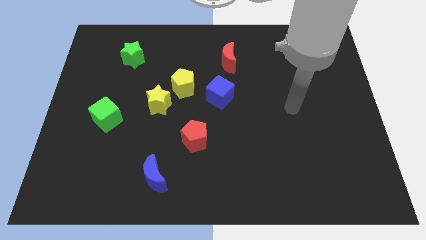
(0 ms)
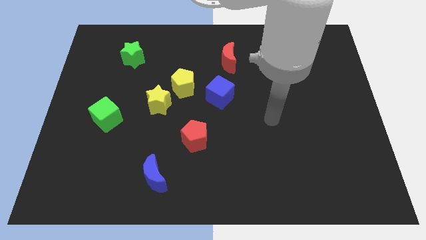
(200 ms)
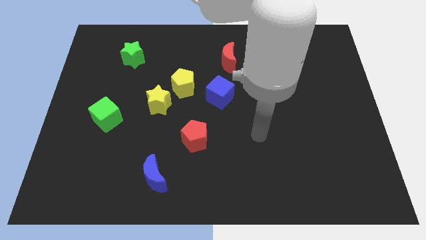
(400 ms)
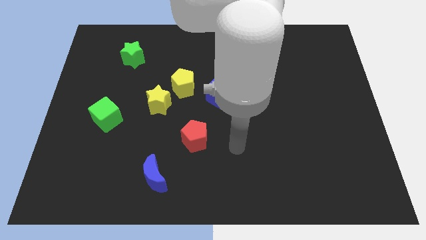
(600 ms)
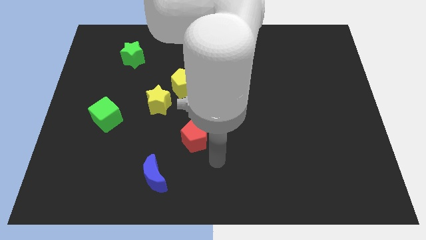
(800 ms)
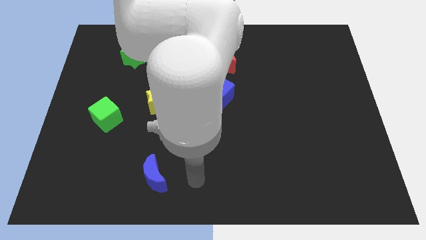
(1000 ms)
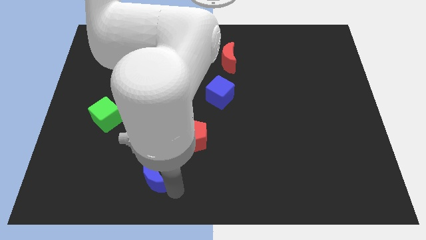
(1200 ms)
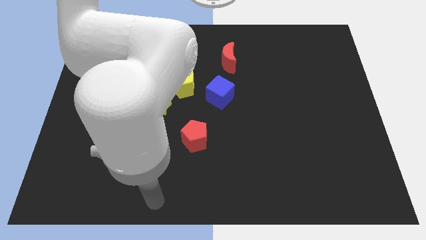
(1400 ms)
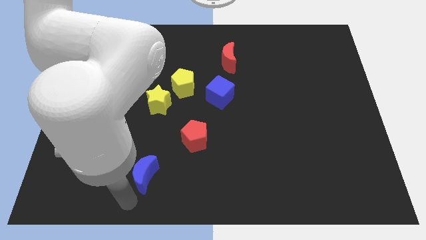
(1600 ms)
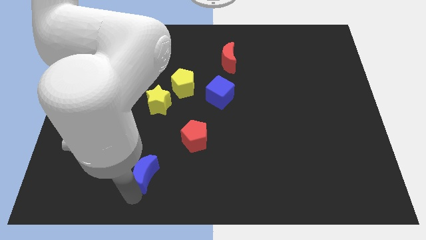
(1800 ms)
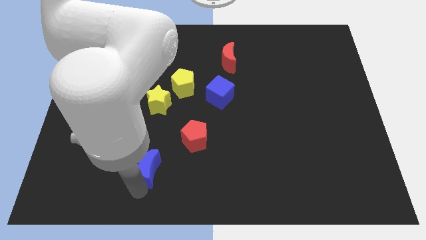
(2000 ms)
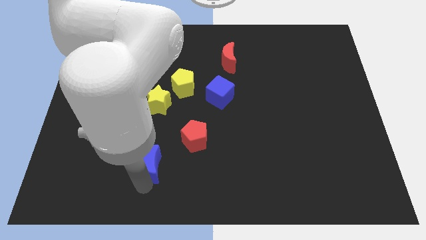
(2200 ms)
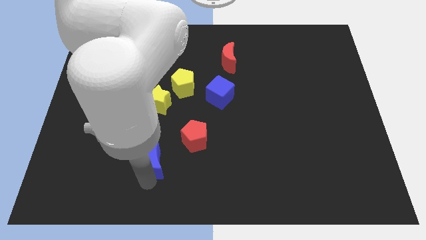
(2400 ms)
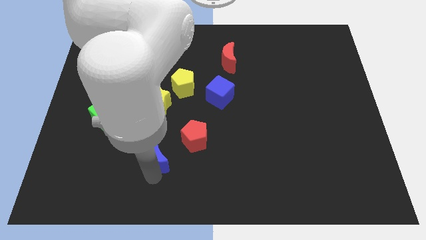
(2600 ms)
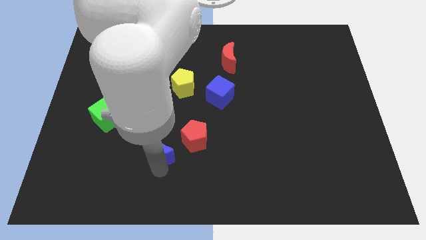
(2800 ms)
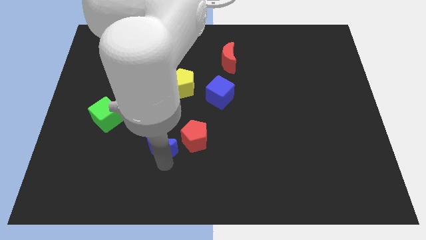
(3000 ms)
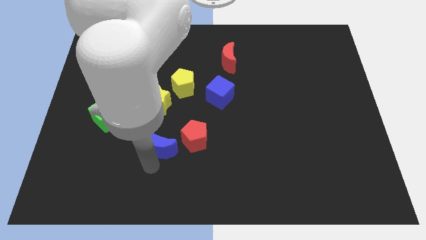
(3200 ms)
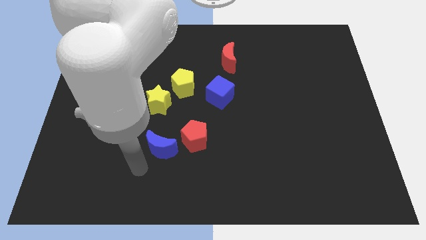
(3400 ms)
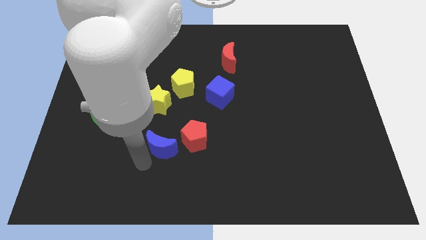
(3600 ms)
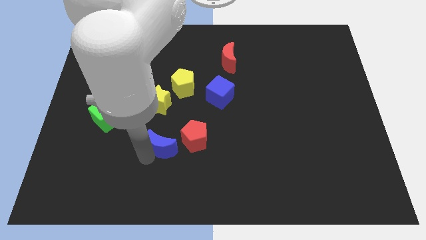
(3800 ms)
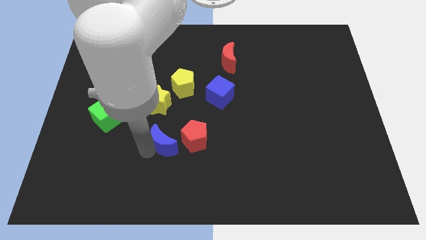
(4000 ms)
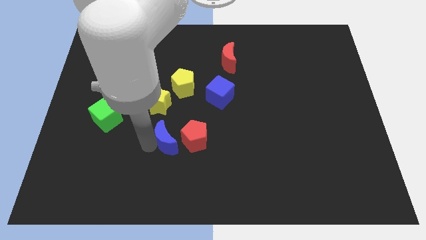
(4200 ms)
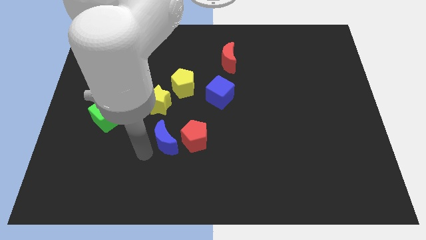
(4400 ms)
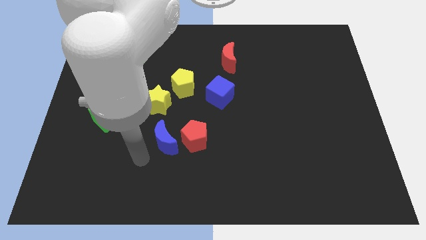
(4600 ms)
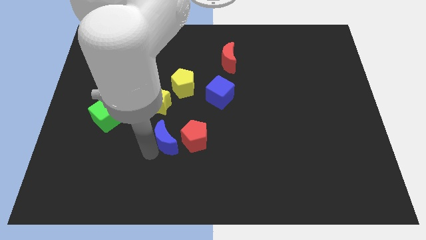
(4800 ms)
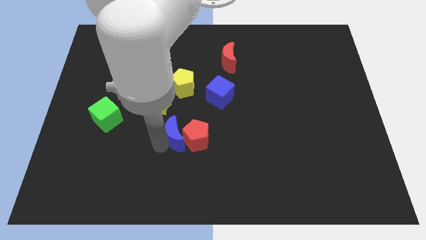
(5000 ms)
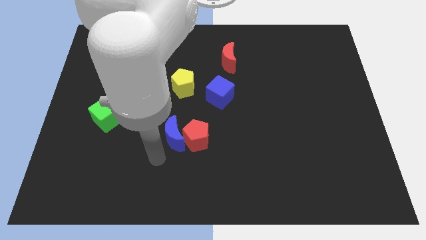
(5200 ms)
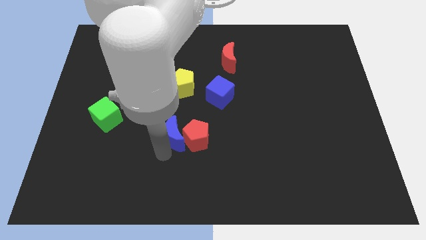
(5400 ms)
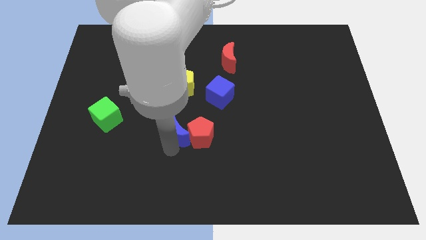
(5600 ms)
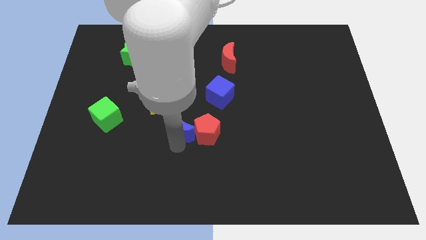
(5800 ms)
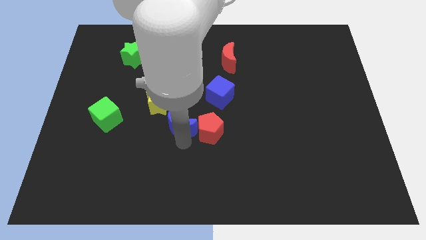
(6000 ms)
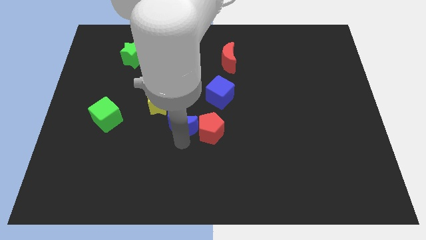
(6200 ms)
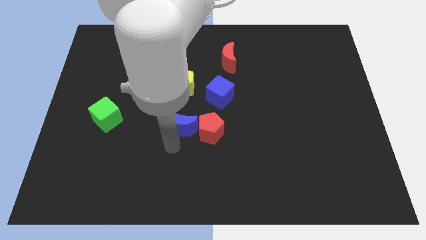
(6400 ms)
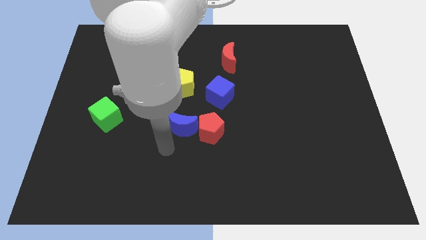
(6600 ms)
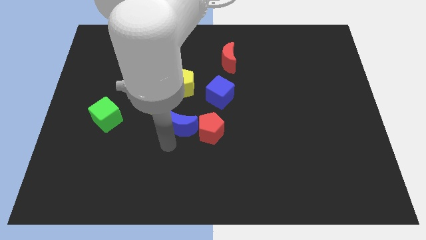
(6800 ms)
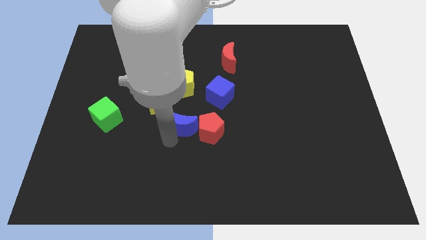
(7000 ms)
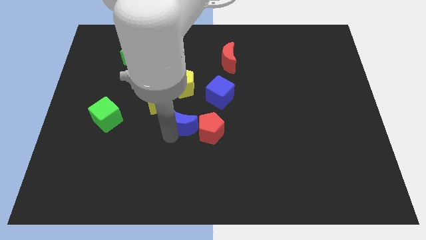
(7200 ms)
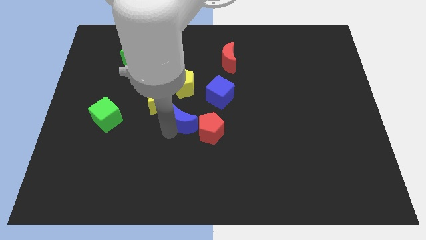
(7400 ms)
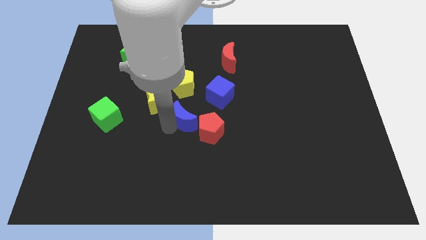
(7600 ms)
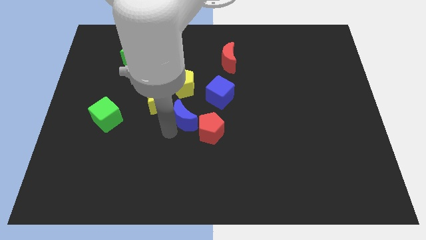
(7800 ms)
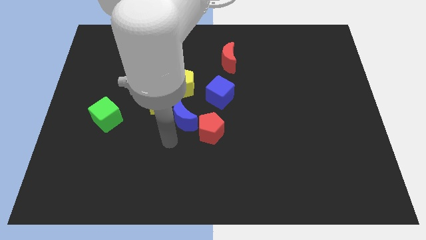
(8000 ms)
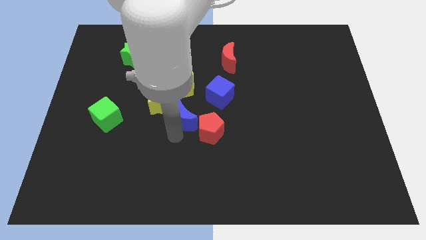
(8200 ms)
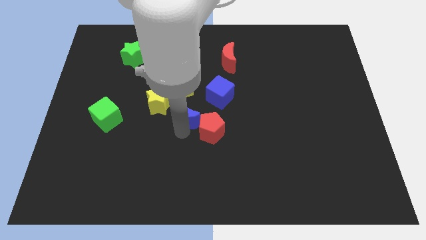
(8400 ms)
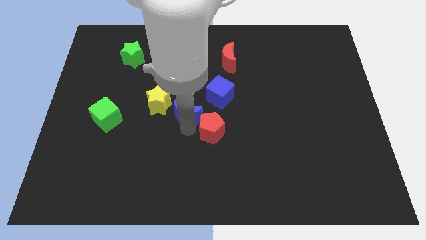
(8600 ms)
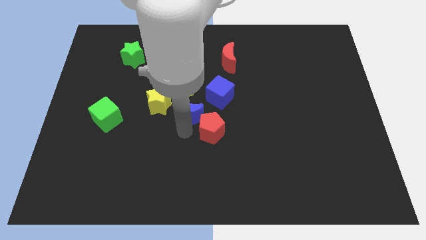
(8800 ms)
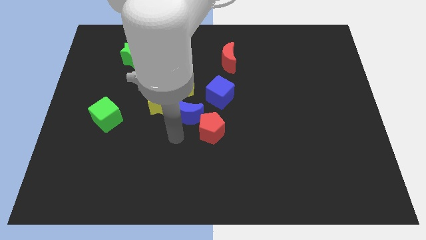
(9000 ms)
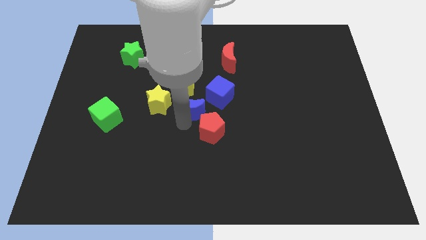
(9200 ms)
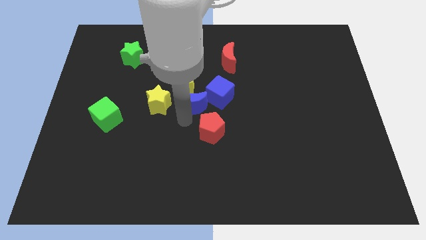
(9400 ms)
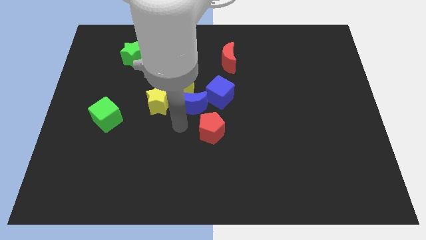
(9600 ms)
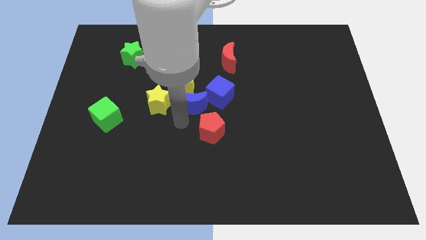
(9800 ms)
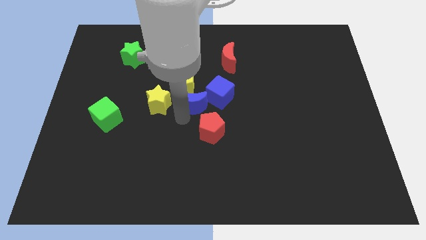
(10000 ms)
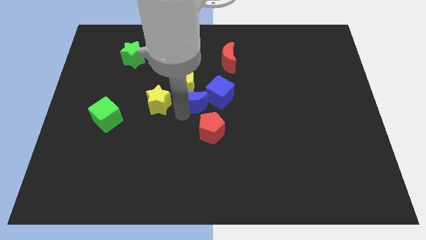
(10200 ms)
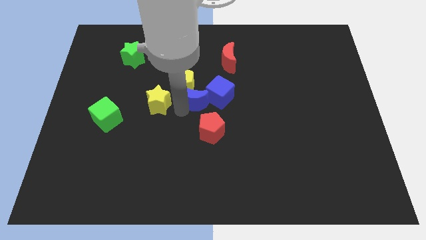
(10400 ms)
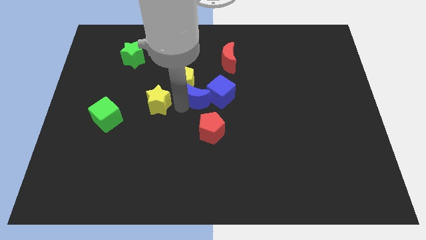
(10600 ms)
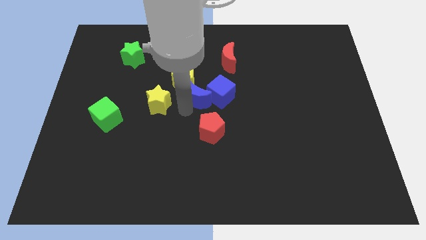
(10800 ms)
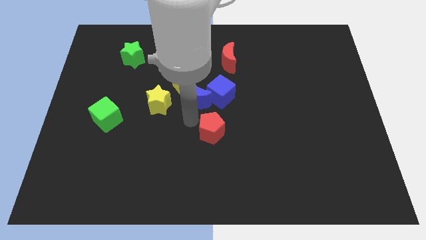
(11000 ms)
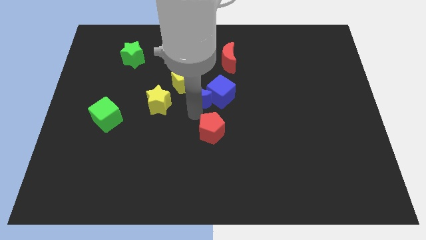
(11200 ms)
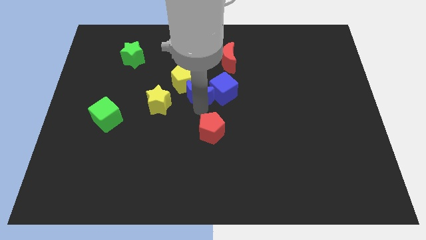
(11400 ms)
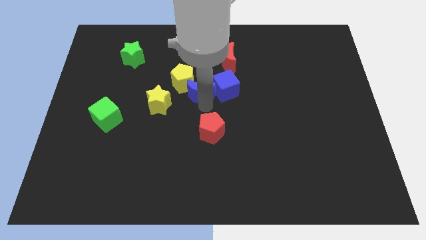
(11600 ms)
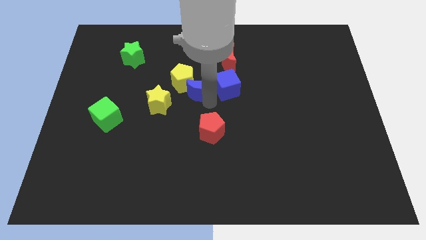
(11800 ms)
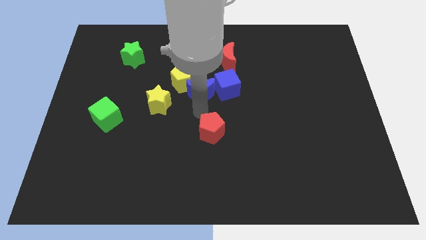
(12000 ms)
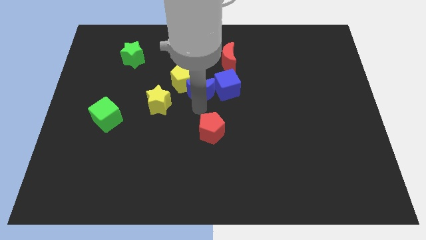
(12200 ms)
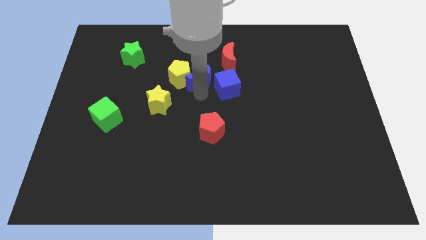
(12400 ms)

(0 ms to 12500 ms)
slide the blue moon to the top right side of the yellow pentagon

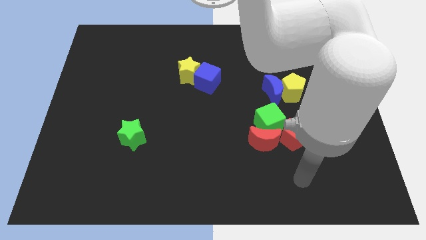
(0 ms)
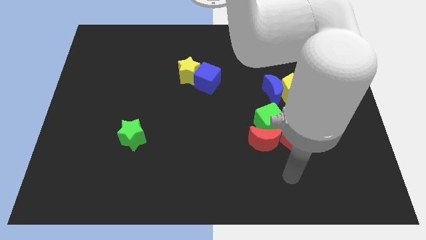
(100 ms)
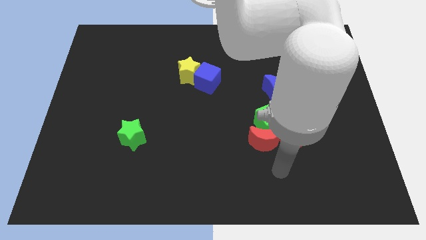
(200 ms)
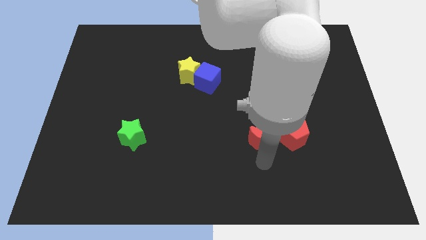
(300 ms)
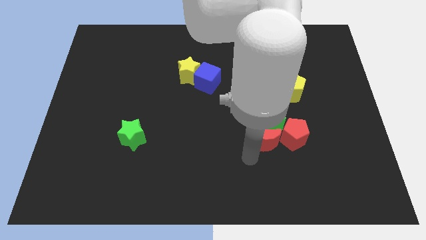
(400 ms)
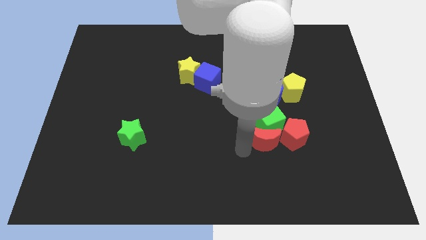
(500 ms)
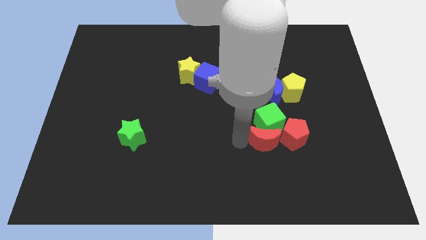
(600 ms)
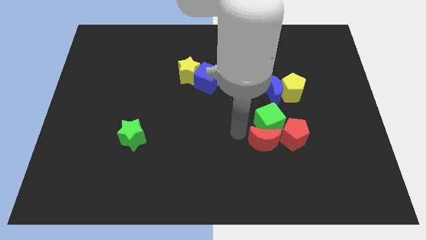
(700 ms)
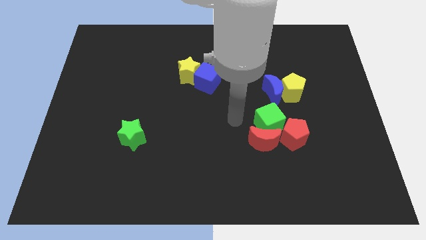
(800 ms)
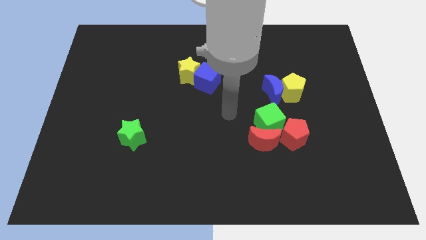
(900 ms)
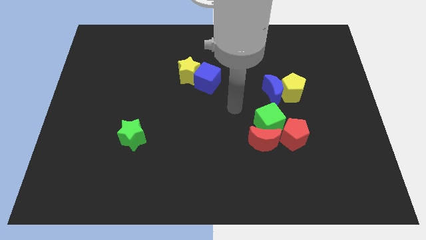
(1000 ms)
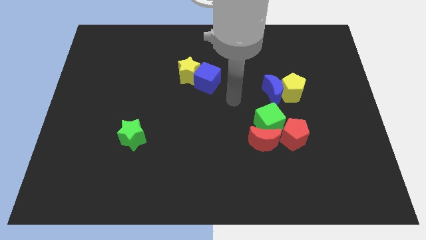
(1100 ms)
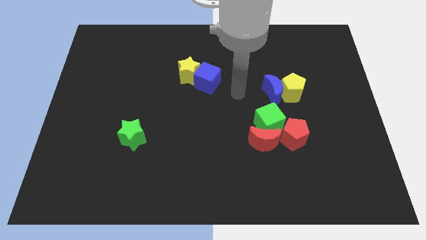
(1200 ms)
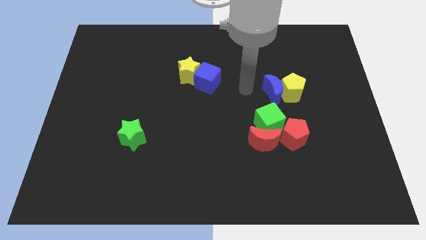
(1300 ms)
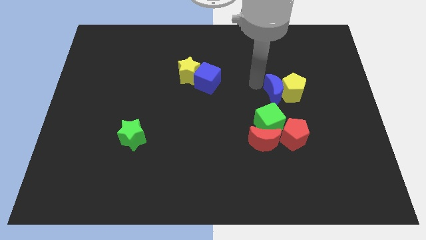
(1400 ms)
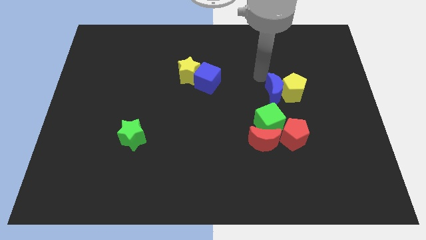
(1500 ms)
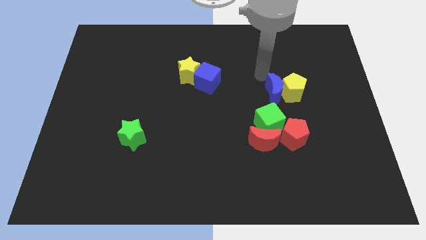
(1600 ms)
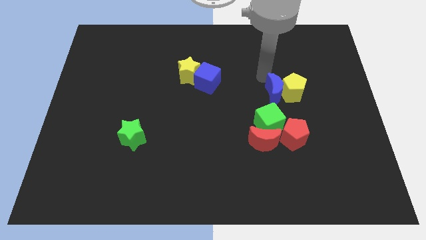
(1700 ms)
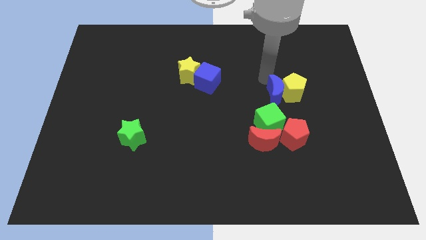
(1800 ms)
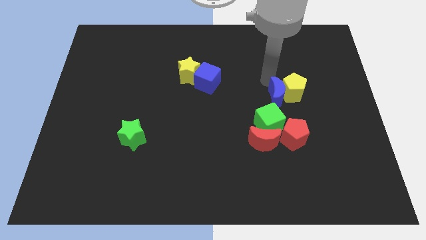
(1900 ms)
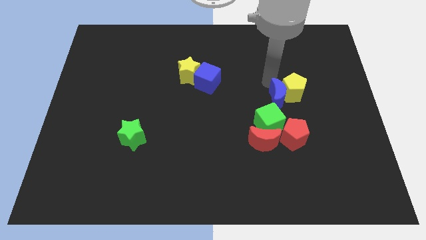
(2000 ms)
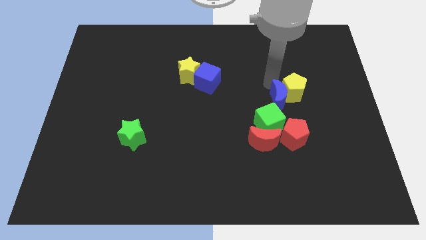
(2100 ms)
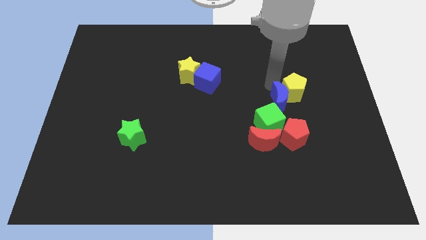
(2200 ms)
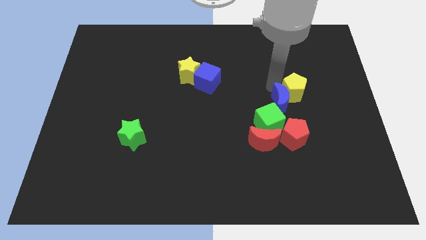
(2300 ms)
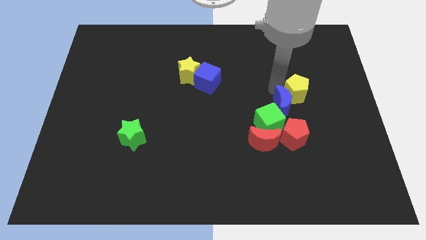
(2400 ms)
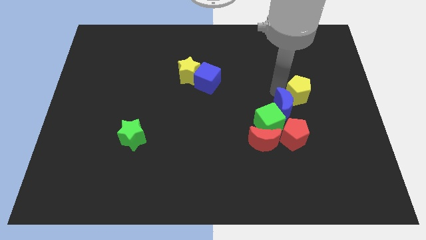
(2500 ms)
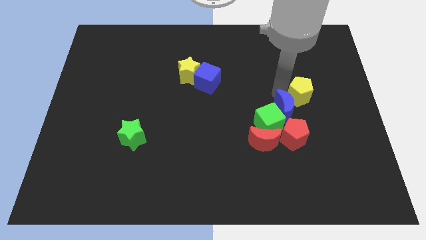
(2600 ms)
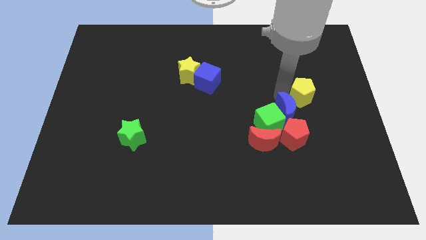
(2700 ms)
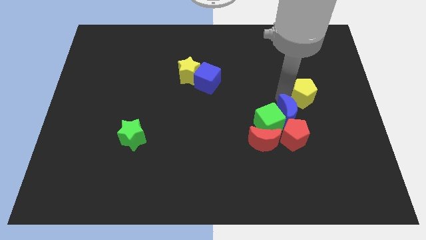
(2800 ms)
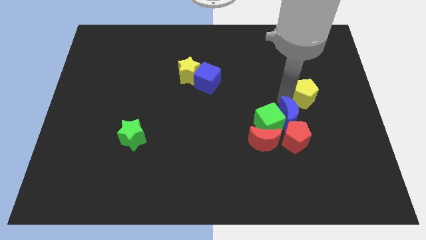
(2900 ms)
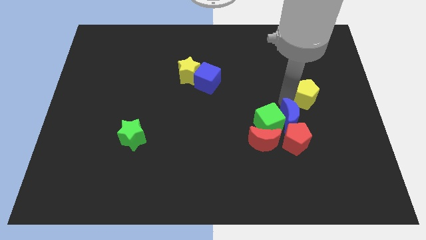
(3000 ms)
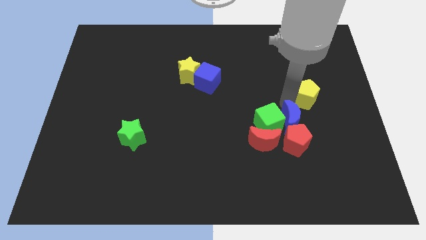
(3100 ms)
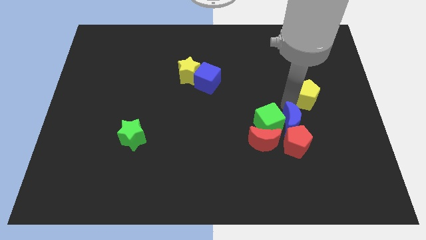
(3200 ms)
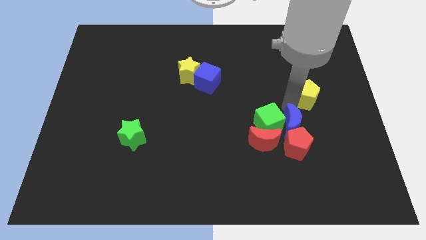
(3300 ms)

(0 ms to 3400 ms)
push the blue moon to the right of the red moon
